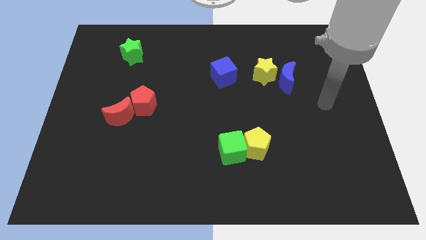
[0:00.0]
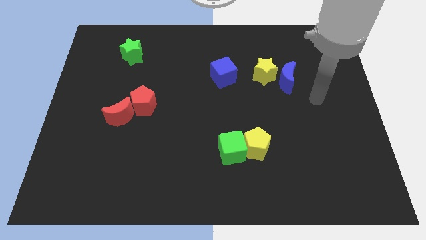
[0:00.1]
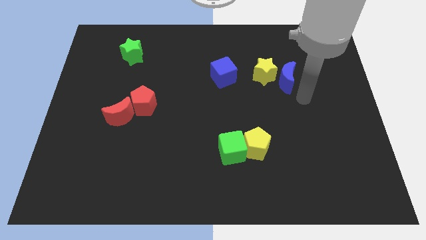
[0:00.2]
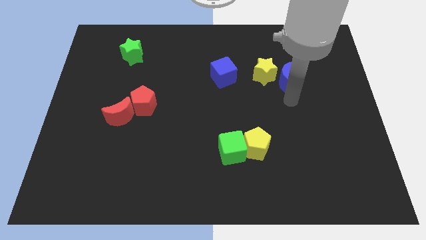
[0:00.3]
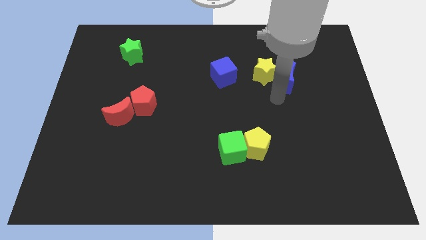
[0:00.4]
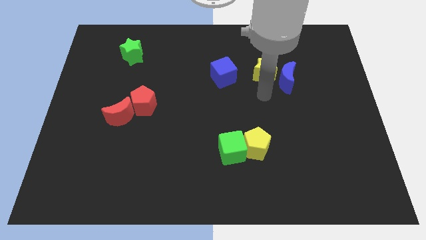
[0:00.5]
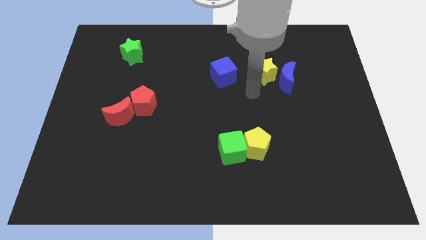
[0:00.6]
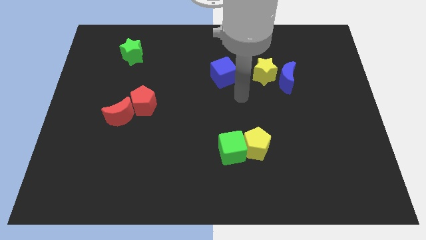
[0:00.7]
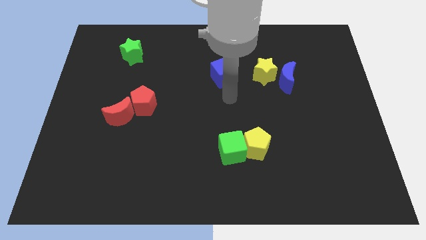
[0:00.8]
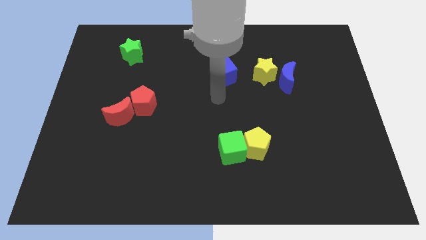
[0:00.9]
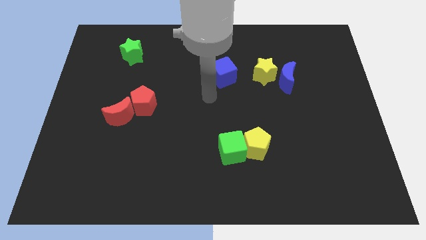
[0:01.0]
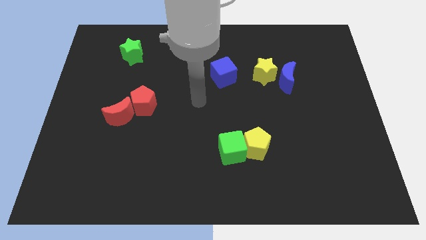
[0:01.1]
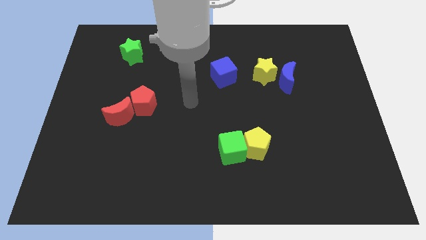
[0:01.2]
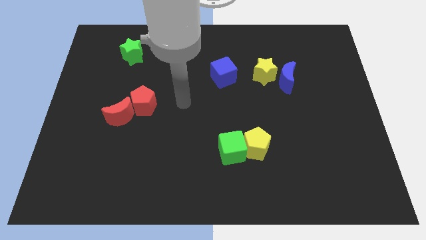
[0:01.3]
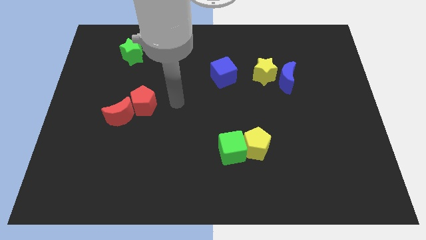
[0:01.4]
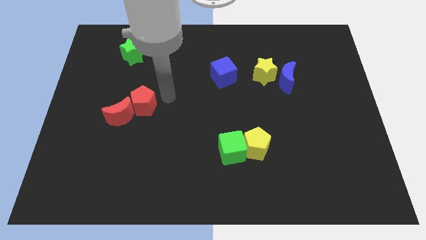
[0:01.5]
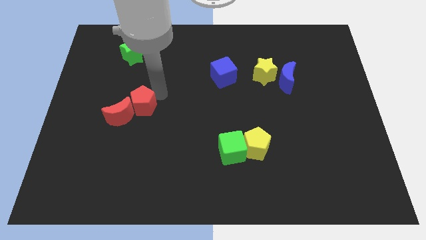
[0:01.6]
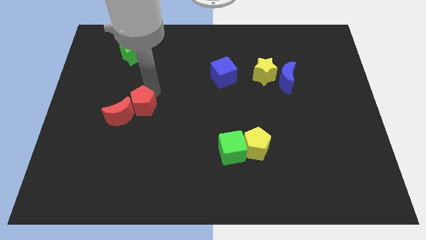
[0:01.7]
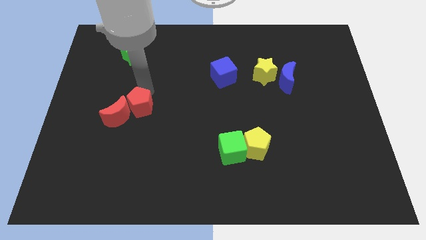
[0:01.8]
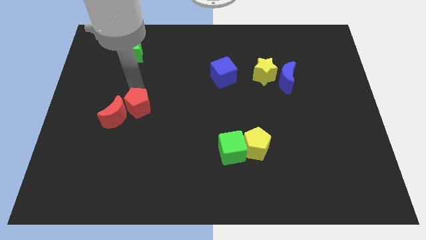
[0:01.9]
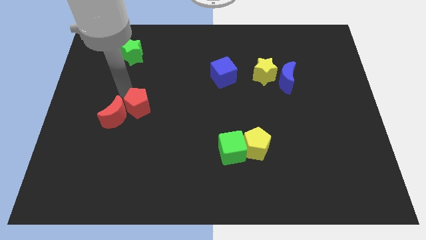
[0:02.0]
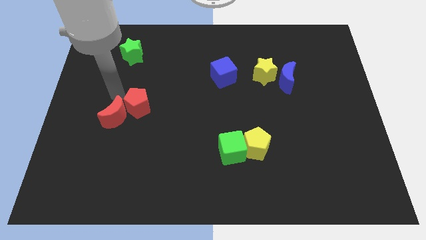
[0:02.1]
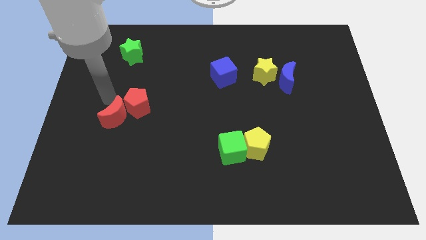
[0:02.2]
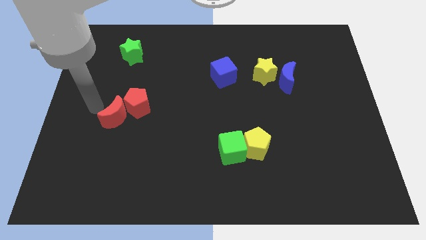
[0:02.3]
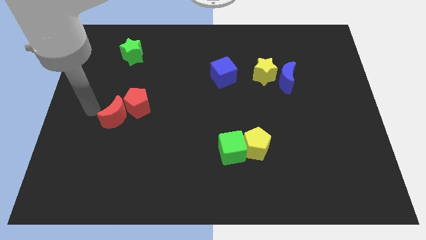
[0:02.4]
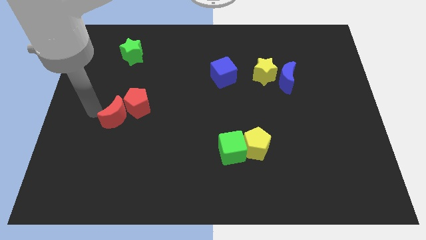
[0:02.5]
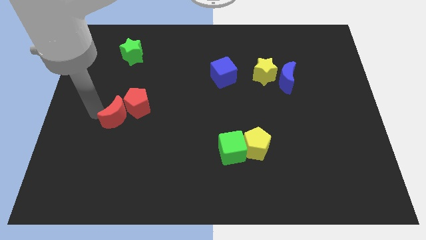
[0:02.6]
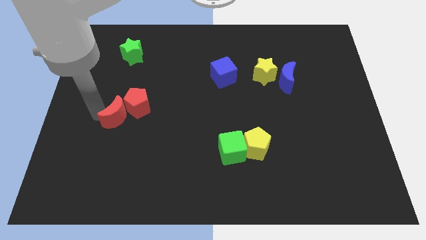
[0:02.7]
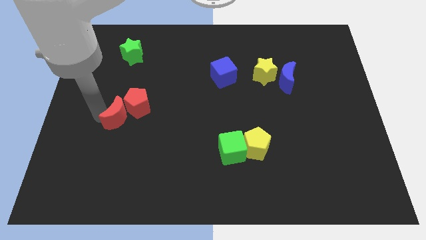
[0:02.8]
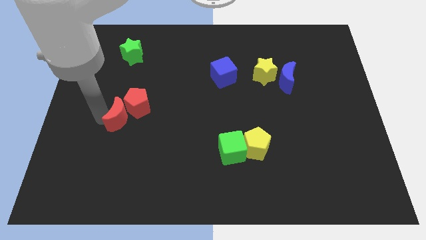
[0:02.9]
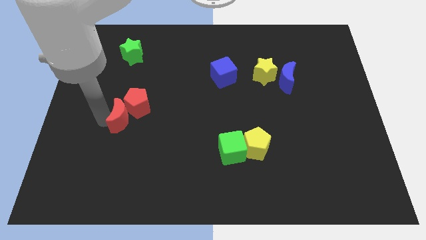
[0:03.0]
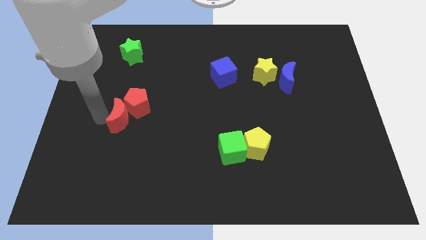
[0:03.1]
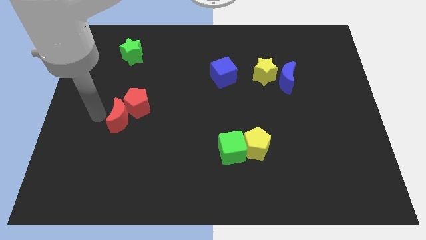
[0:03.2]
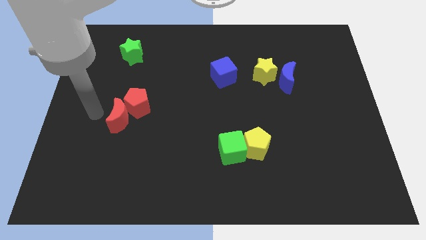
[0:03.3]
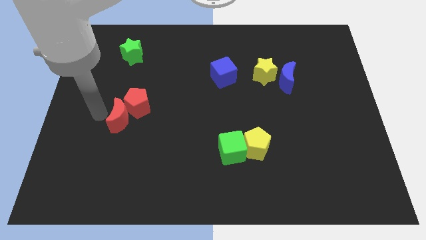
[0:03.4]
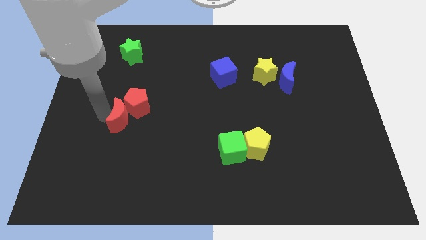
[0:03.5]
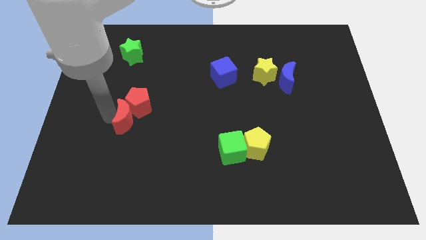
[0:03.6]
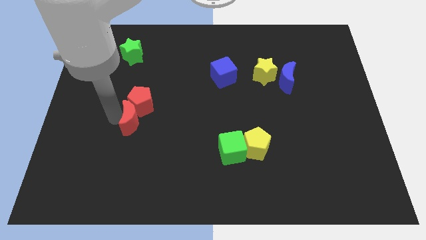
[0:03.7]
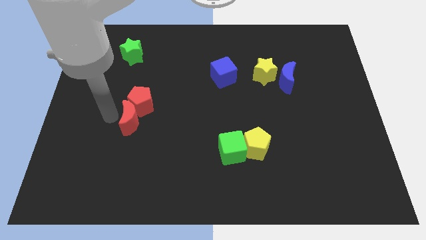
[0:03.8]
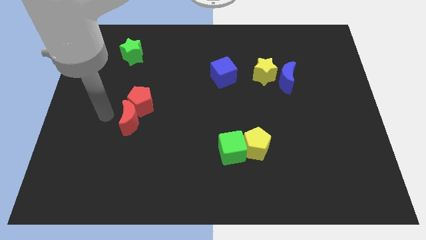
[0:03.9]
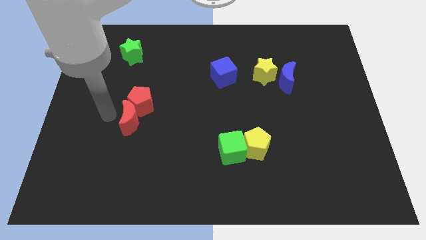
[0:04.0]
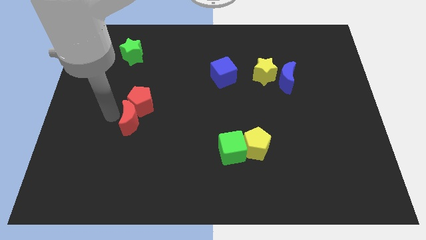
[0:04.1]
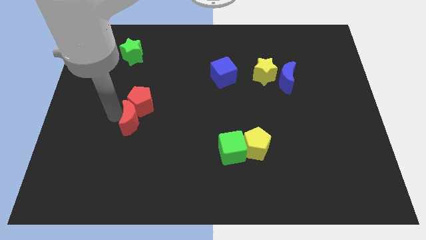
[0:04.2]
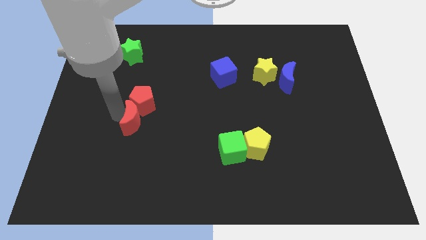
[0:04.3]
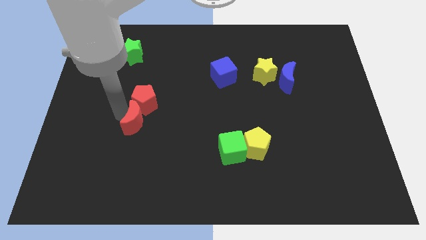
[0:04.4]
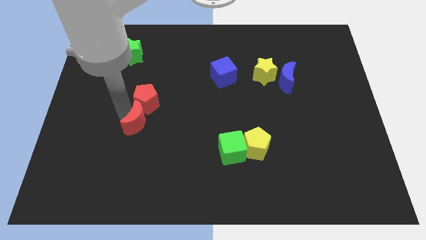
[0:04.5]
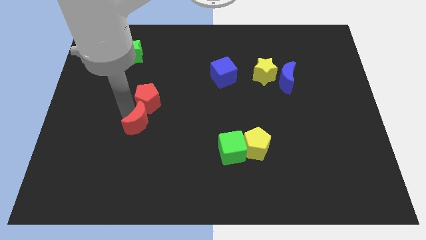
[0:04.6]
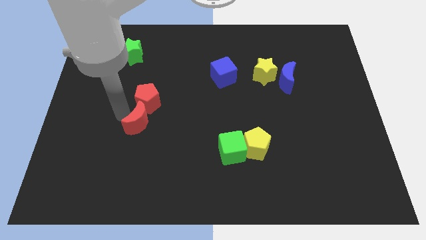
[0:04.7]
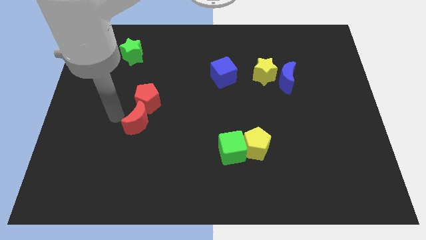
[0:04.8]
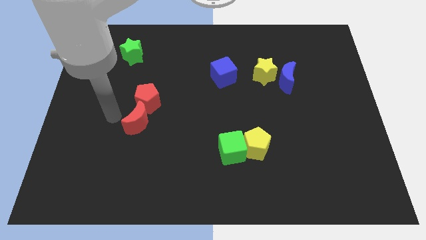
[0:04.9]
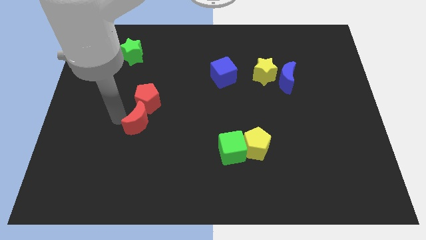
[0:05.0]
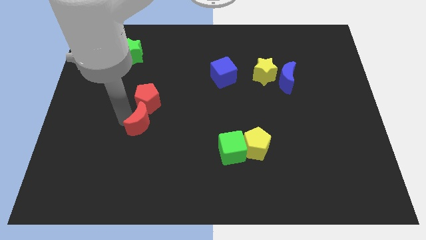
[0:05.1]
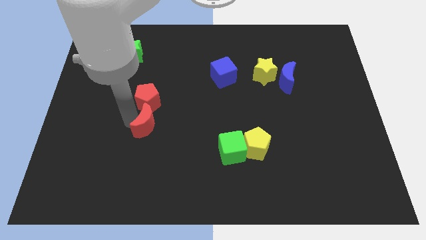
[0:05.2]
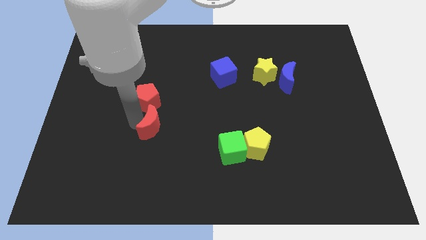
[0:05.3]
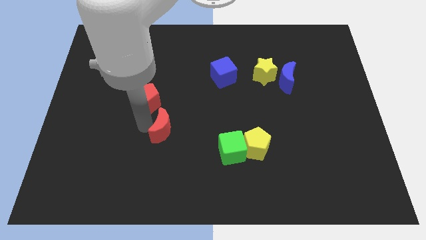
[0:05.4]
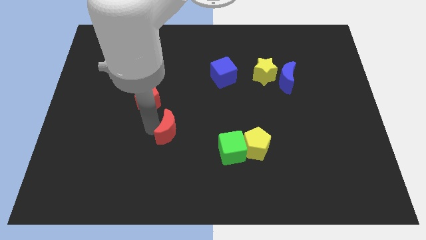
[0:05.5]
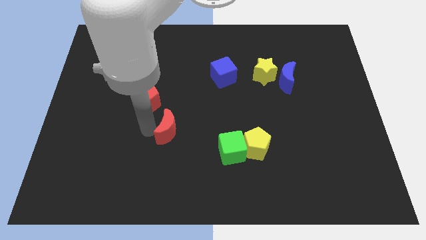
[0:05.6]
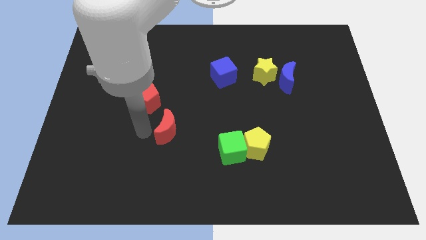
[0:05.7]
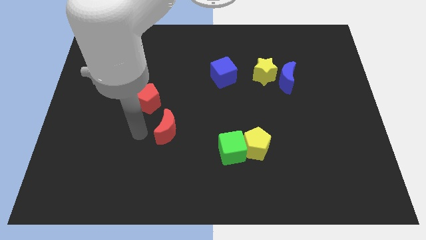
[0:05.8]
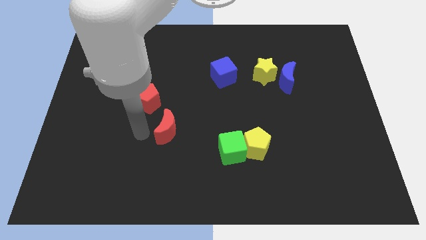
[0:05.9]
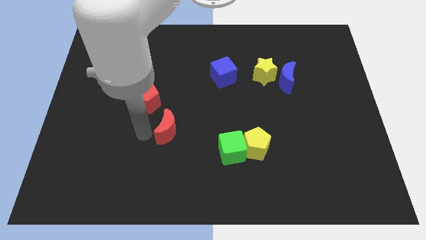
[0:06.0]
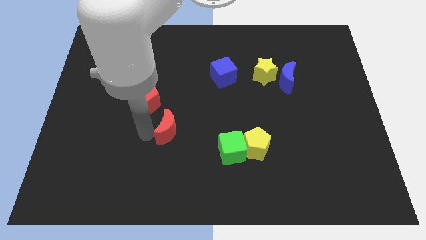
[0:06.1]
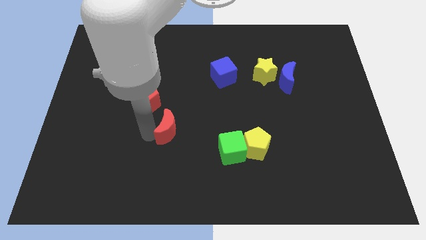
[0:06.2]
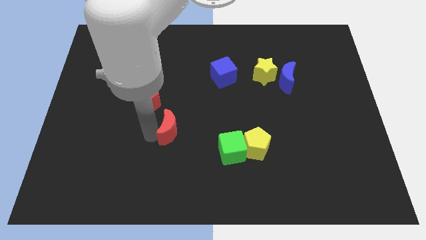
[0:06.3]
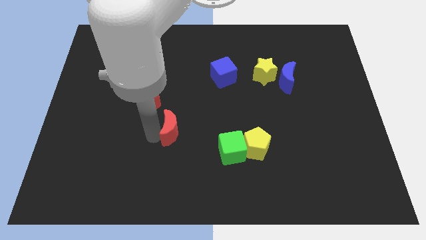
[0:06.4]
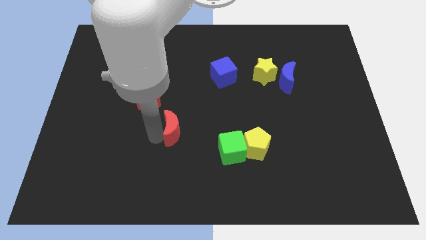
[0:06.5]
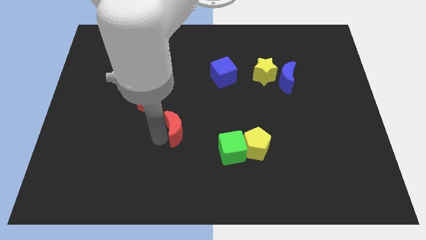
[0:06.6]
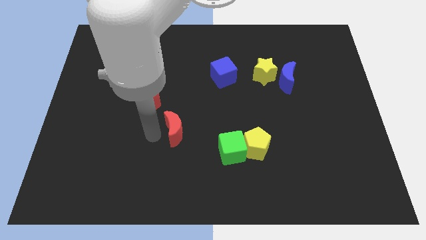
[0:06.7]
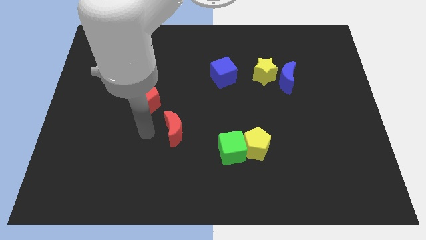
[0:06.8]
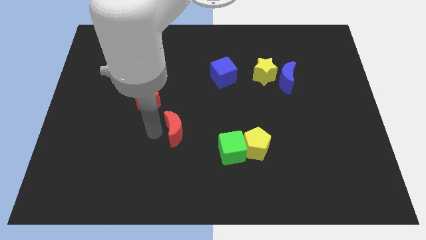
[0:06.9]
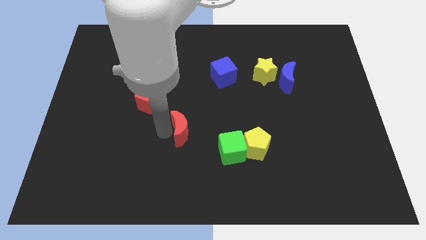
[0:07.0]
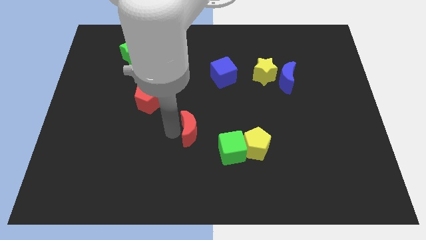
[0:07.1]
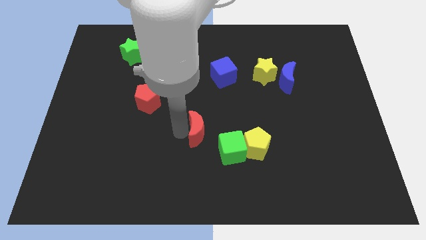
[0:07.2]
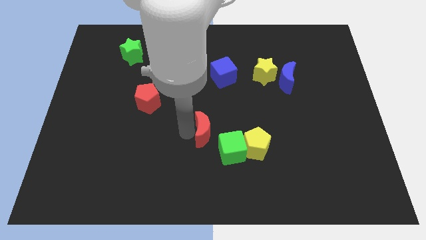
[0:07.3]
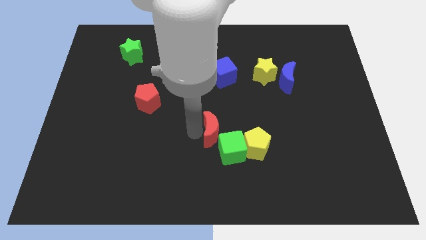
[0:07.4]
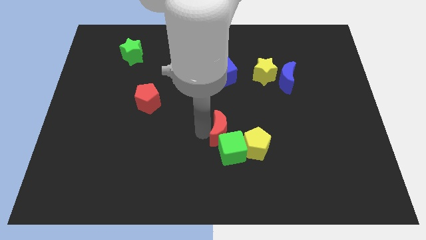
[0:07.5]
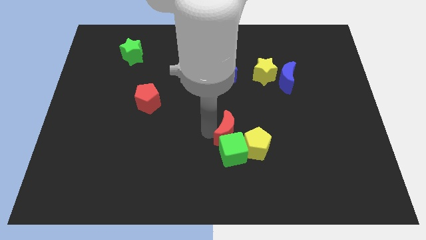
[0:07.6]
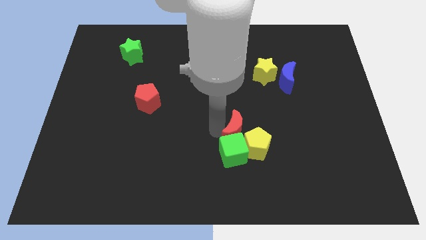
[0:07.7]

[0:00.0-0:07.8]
move the red moon towards the yellow pentagon

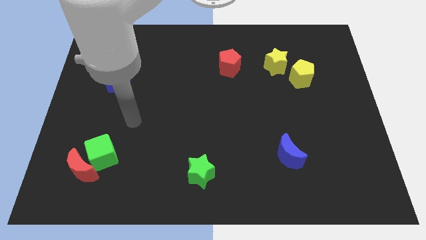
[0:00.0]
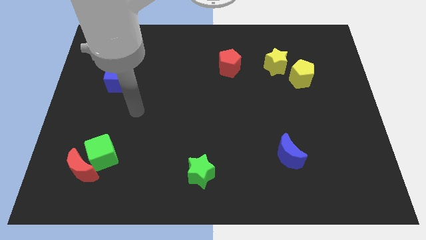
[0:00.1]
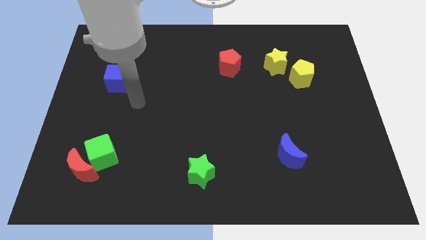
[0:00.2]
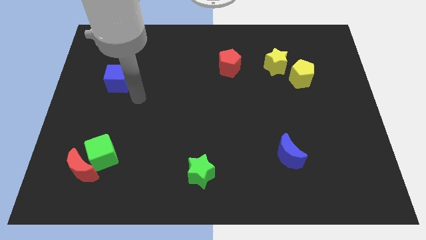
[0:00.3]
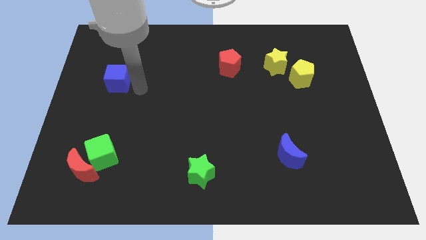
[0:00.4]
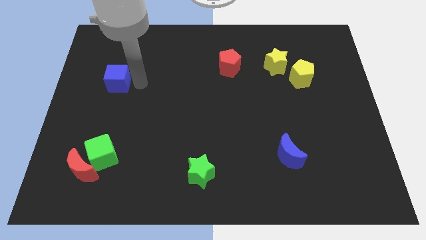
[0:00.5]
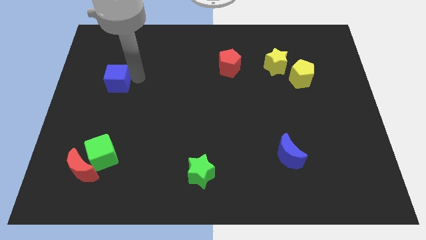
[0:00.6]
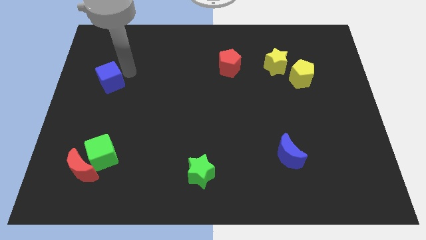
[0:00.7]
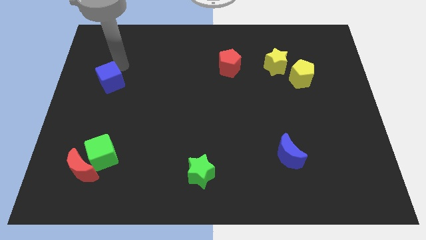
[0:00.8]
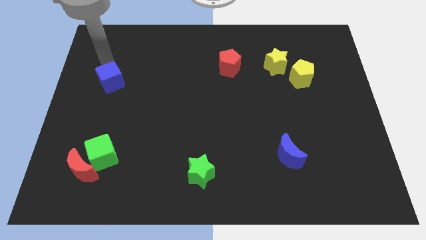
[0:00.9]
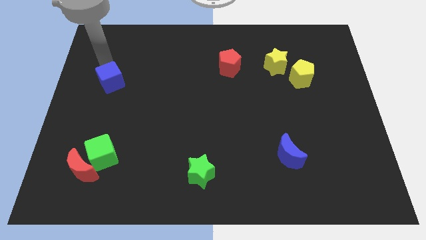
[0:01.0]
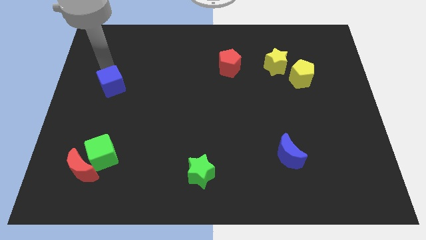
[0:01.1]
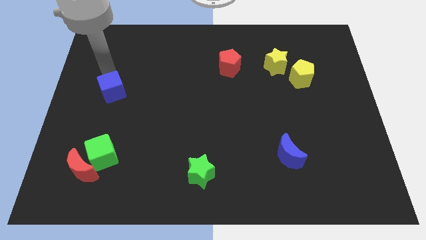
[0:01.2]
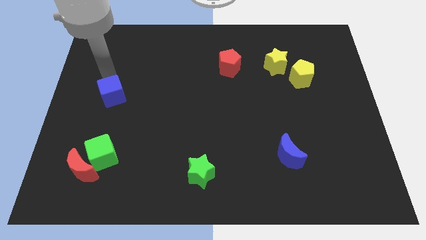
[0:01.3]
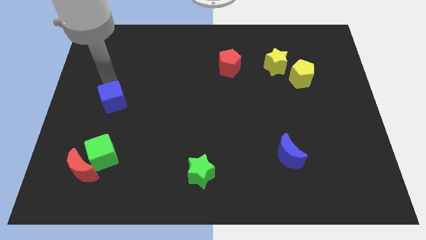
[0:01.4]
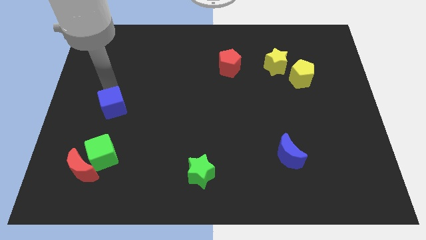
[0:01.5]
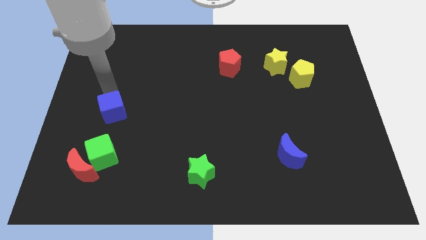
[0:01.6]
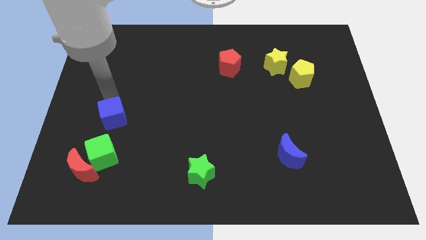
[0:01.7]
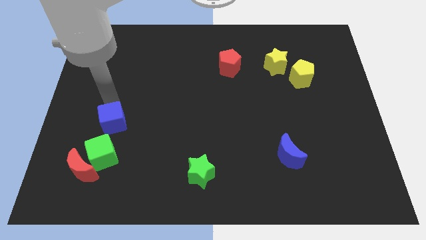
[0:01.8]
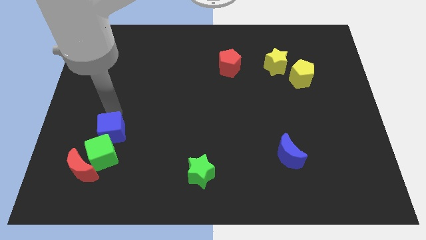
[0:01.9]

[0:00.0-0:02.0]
move the blue cube next to the green cube
